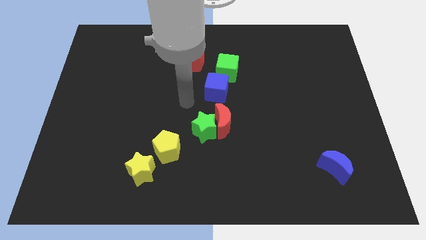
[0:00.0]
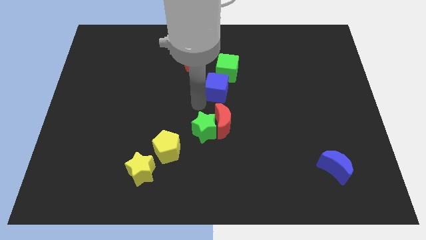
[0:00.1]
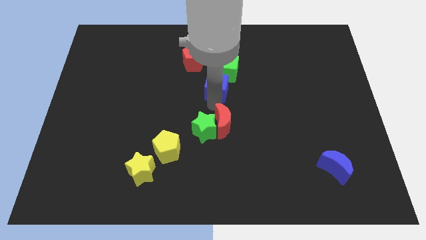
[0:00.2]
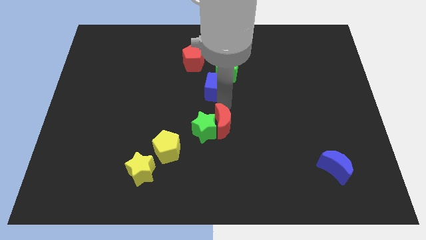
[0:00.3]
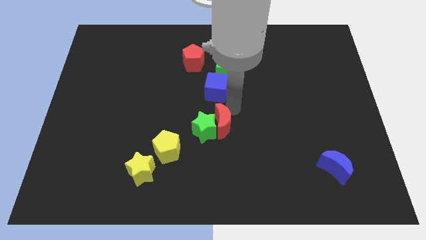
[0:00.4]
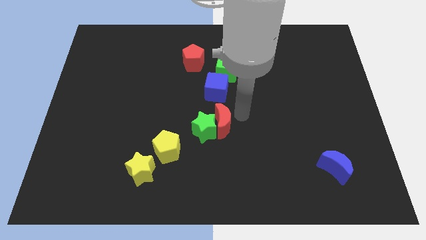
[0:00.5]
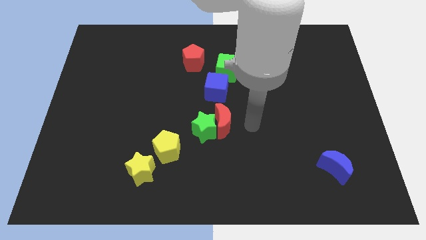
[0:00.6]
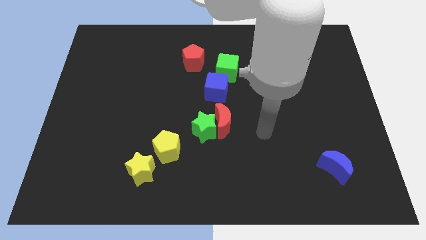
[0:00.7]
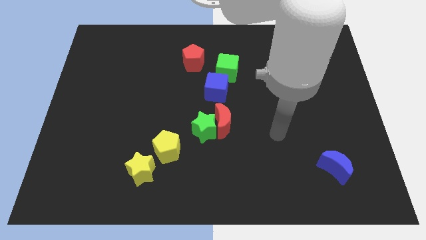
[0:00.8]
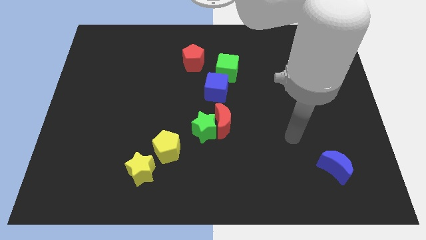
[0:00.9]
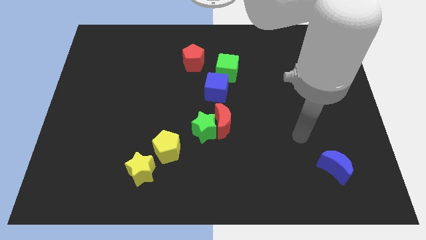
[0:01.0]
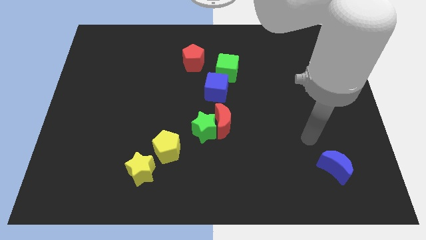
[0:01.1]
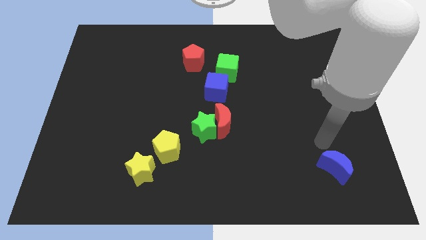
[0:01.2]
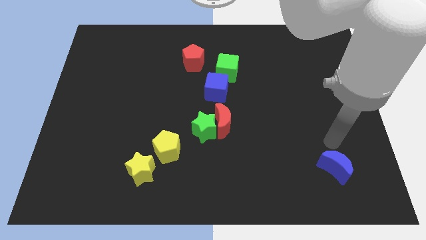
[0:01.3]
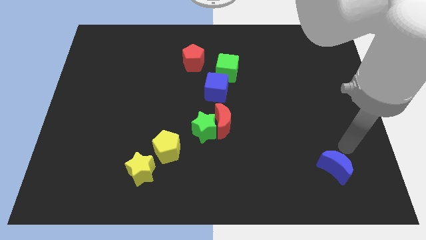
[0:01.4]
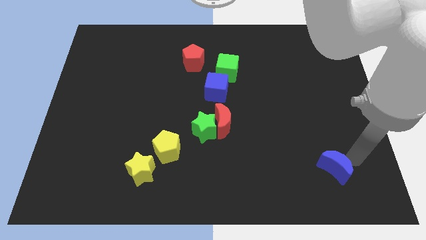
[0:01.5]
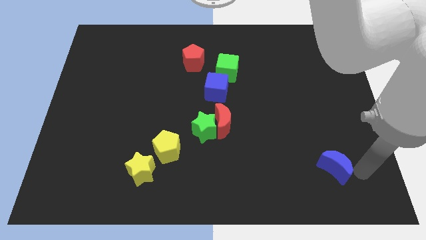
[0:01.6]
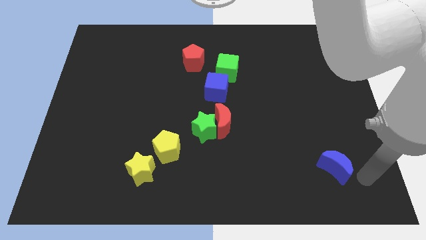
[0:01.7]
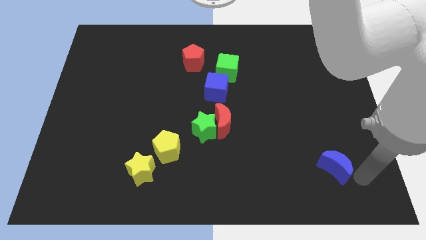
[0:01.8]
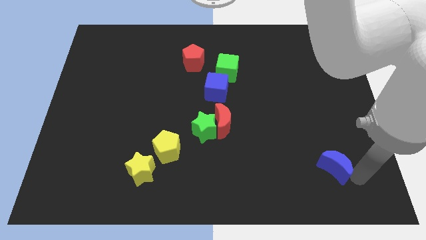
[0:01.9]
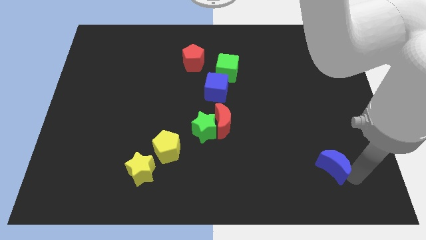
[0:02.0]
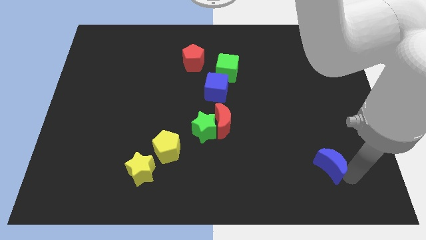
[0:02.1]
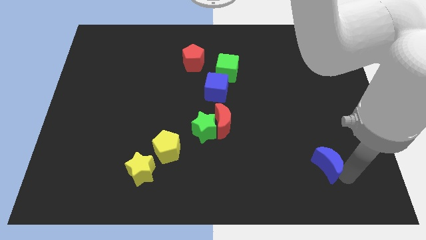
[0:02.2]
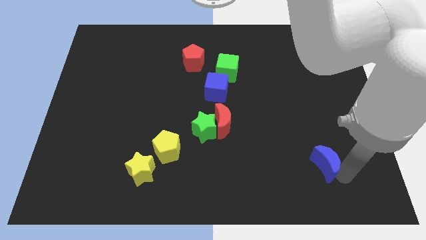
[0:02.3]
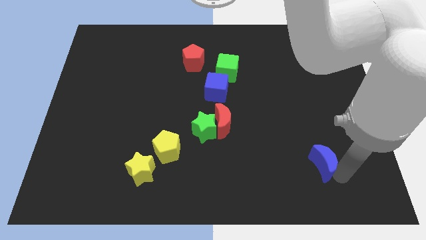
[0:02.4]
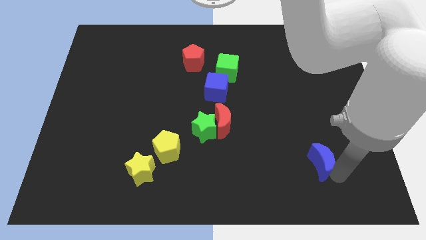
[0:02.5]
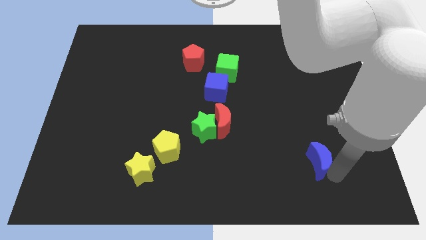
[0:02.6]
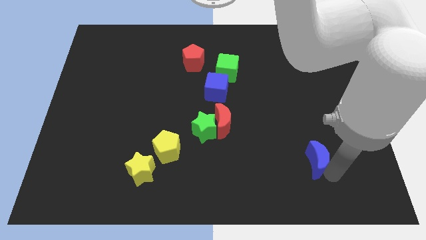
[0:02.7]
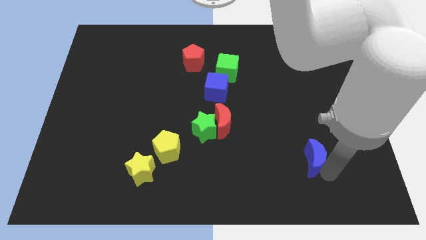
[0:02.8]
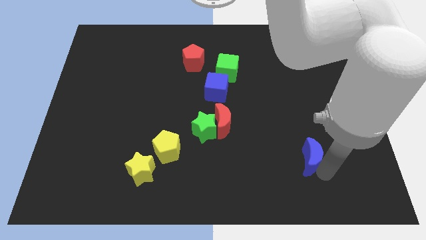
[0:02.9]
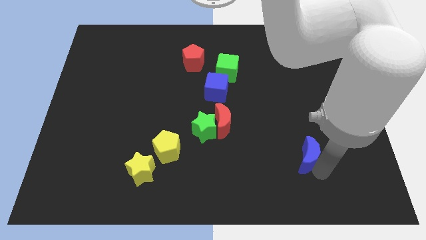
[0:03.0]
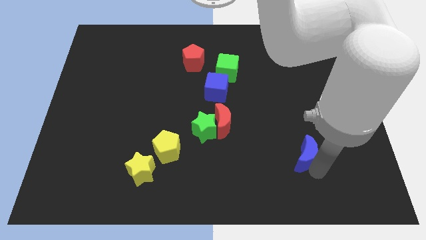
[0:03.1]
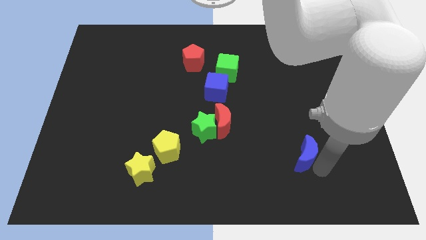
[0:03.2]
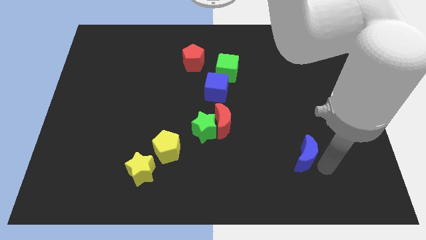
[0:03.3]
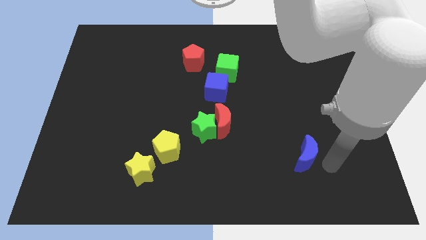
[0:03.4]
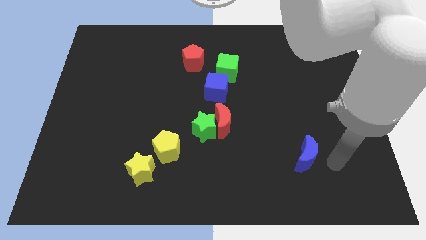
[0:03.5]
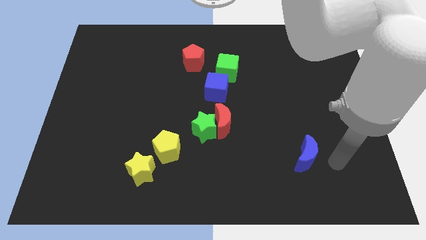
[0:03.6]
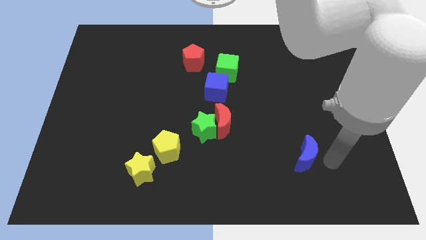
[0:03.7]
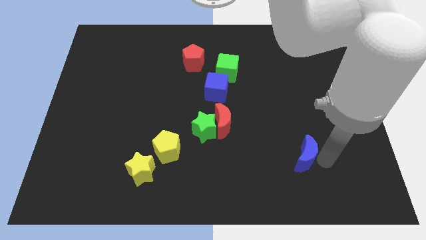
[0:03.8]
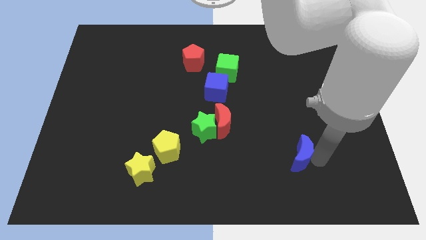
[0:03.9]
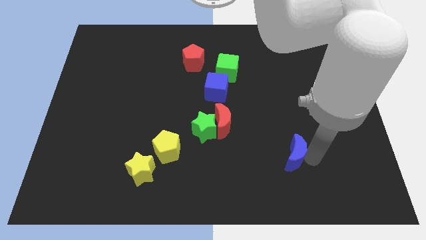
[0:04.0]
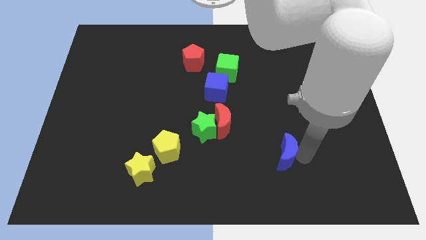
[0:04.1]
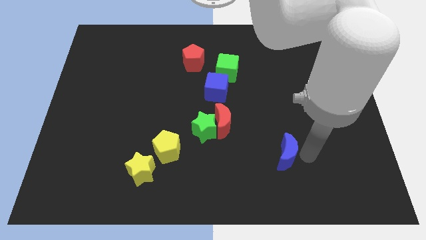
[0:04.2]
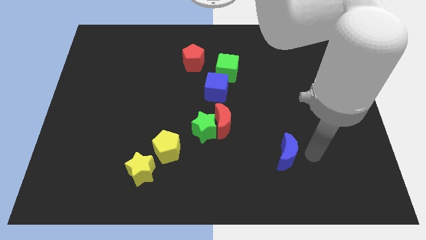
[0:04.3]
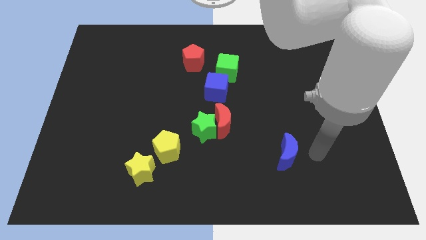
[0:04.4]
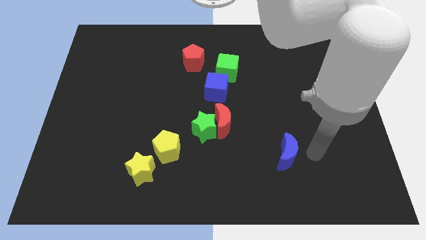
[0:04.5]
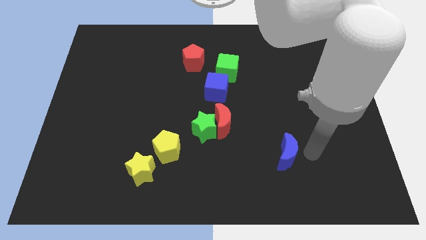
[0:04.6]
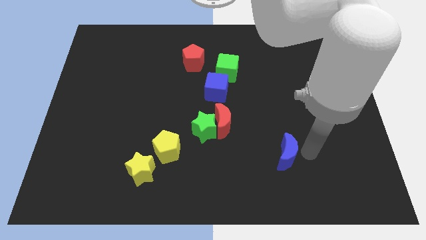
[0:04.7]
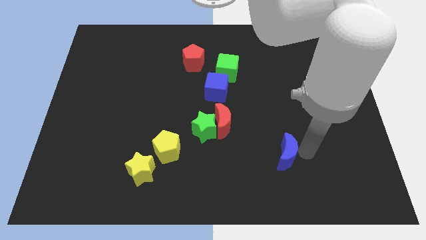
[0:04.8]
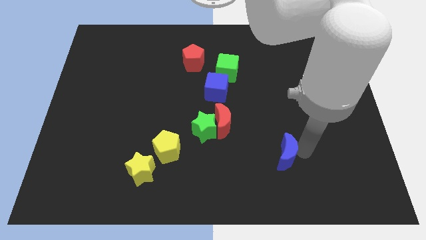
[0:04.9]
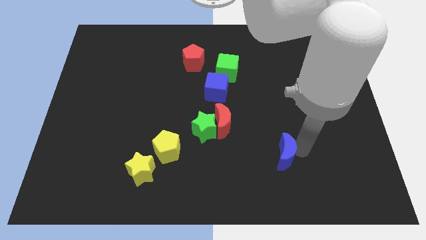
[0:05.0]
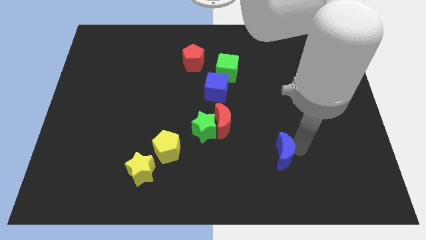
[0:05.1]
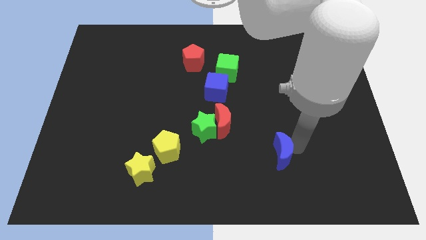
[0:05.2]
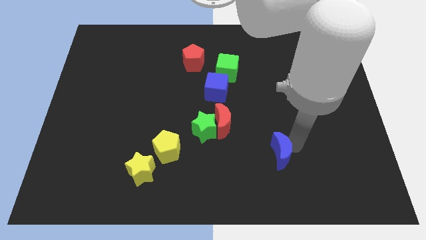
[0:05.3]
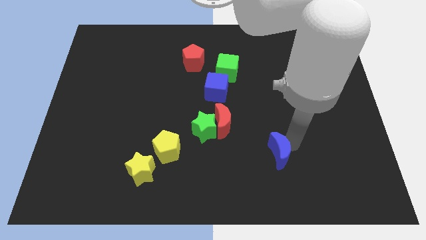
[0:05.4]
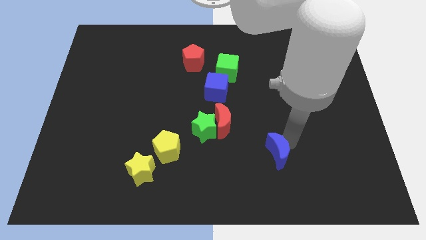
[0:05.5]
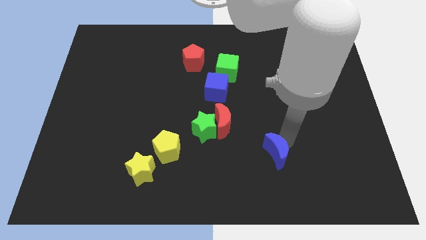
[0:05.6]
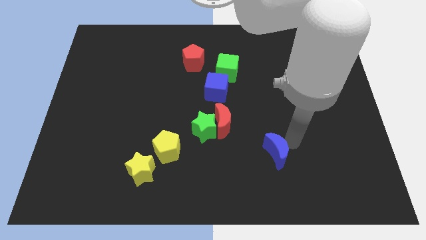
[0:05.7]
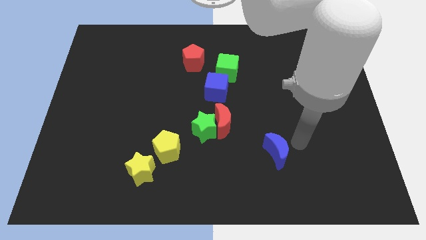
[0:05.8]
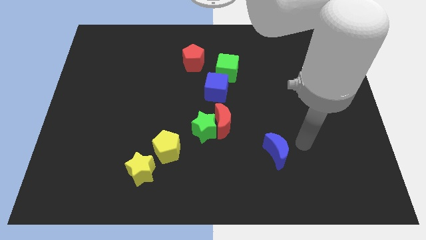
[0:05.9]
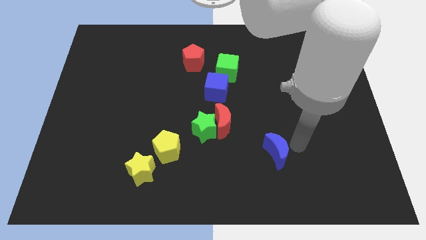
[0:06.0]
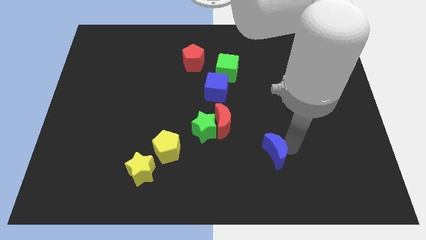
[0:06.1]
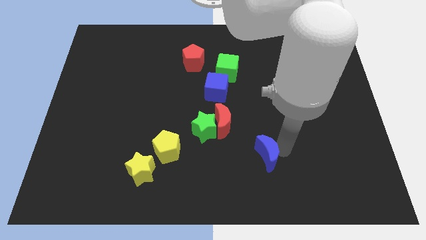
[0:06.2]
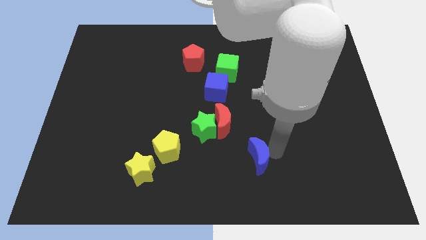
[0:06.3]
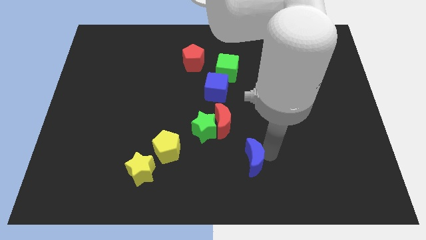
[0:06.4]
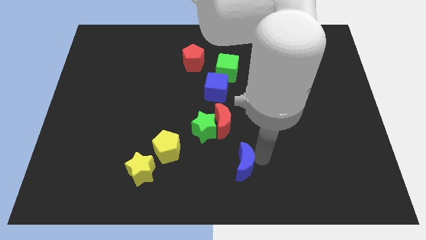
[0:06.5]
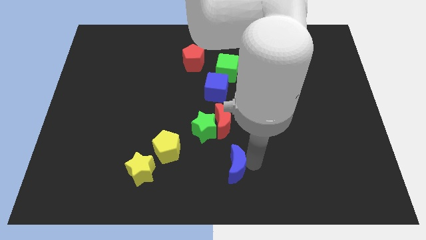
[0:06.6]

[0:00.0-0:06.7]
move the blue moon to the left

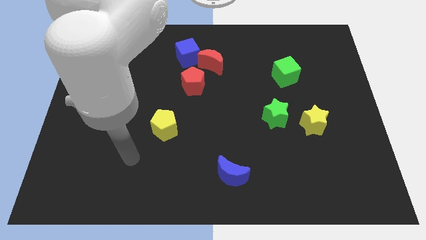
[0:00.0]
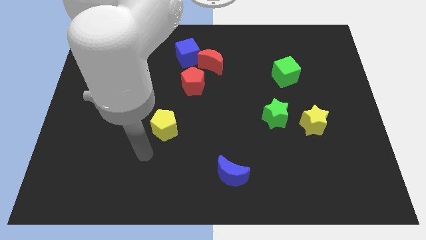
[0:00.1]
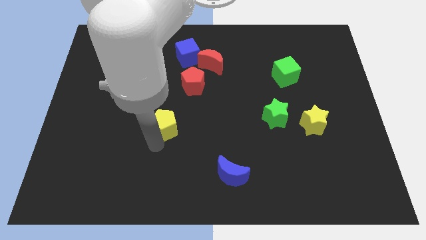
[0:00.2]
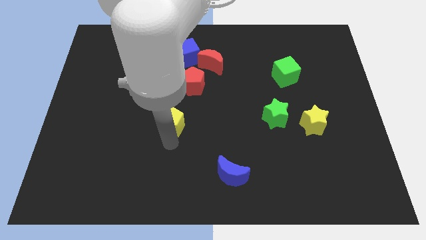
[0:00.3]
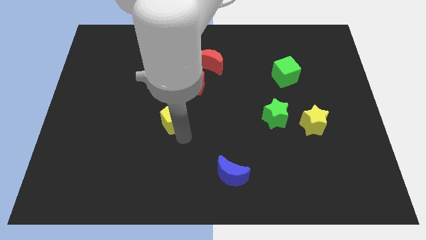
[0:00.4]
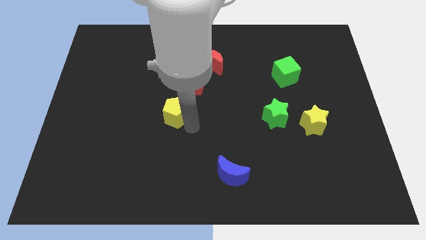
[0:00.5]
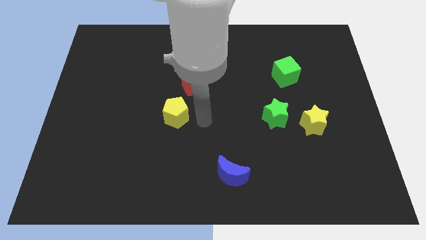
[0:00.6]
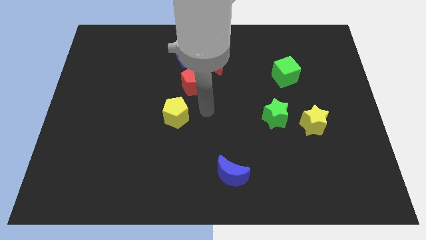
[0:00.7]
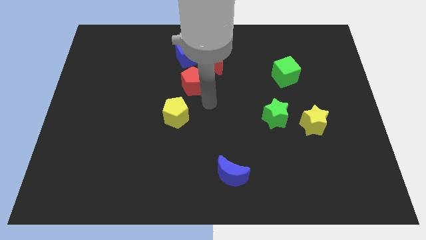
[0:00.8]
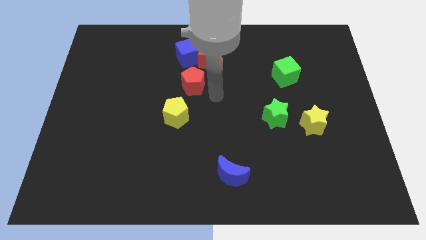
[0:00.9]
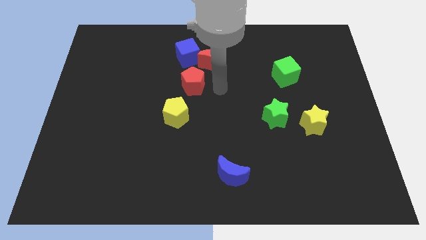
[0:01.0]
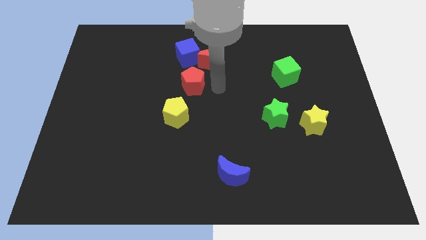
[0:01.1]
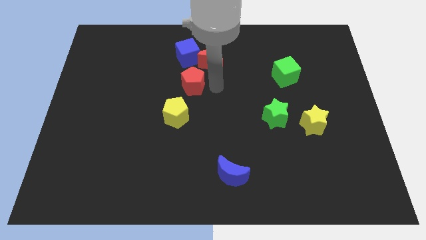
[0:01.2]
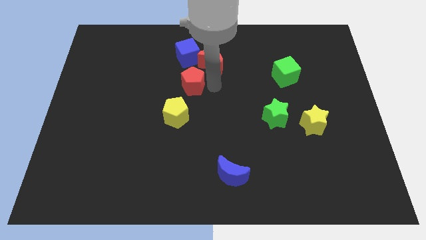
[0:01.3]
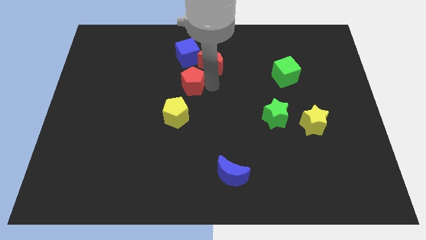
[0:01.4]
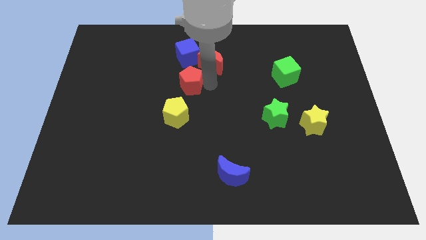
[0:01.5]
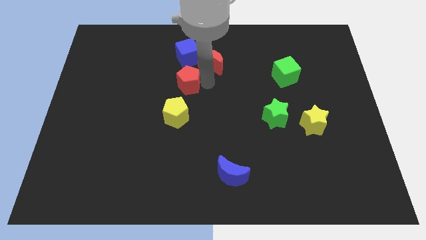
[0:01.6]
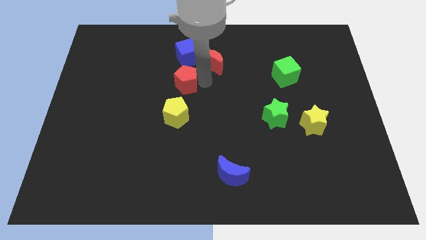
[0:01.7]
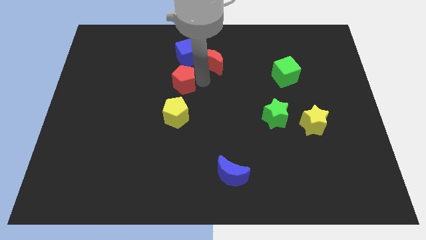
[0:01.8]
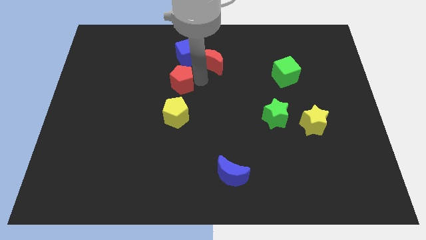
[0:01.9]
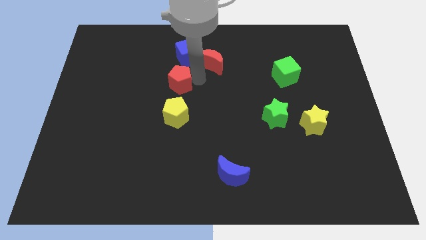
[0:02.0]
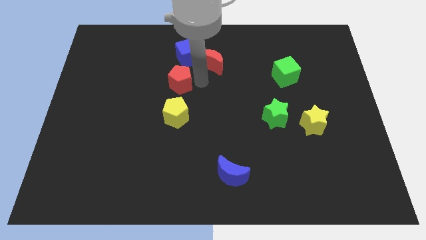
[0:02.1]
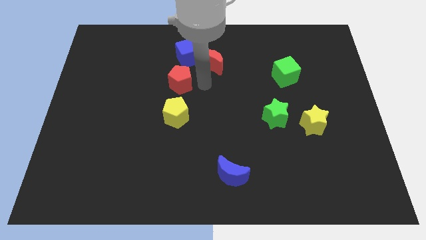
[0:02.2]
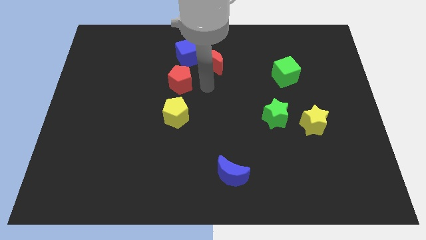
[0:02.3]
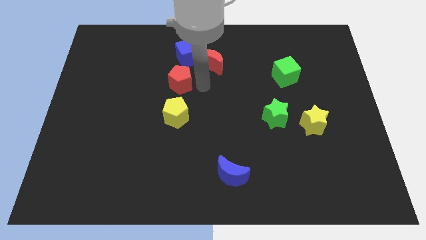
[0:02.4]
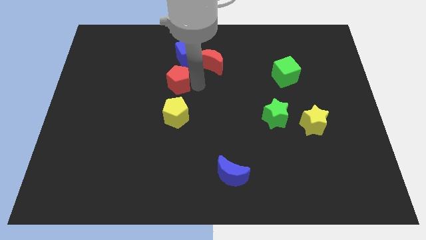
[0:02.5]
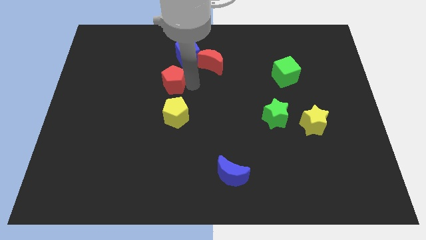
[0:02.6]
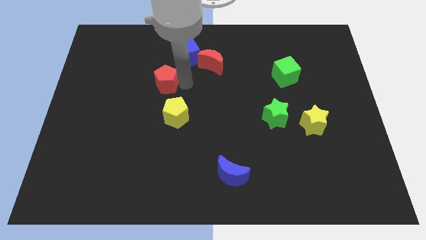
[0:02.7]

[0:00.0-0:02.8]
slightly move the red pentagon to the left
